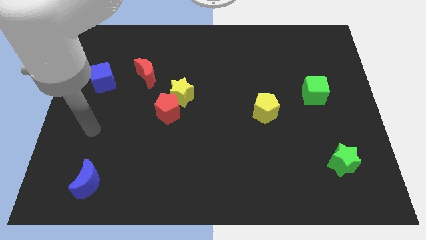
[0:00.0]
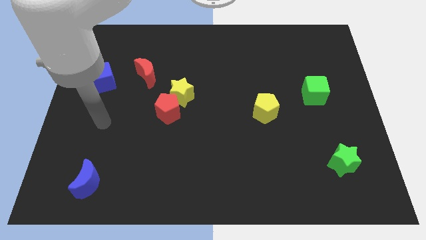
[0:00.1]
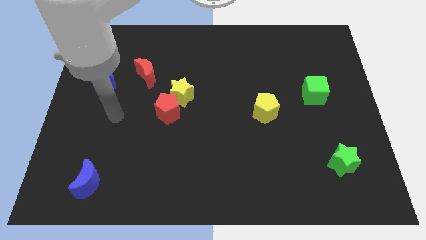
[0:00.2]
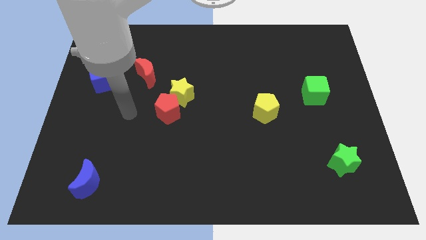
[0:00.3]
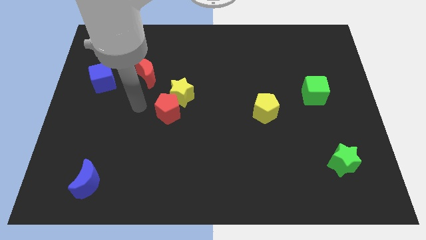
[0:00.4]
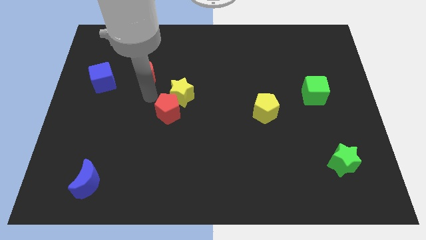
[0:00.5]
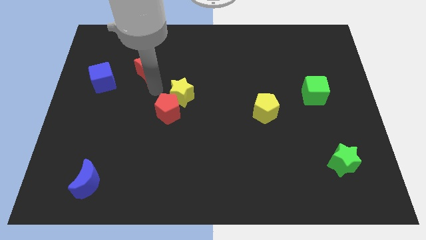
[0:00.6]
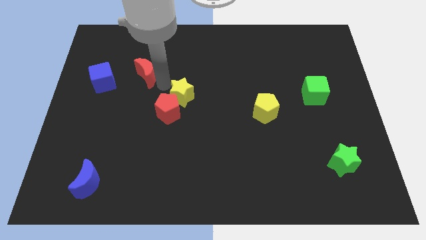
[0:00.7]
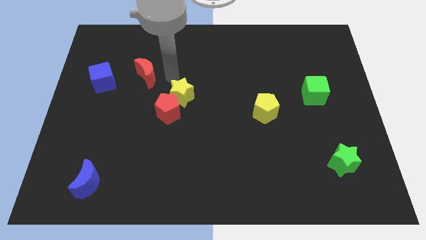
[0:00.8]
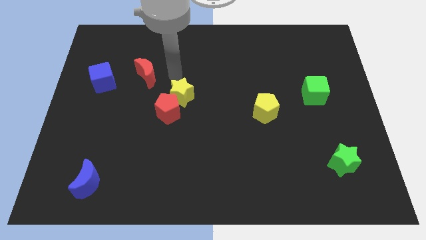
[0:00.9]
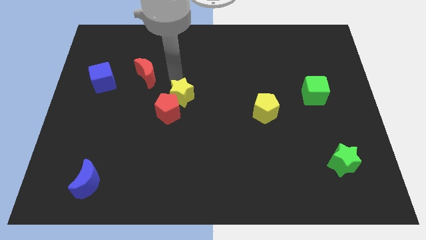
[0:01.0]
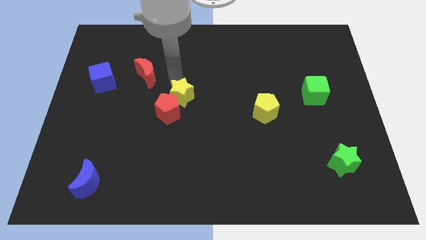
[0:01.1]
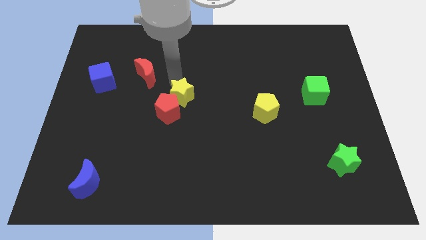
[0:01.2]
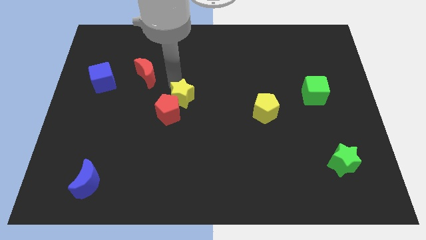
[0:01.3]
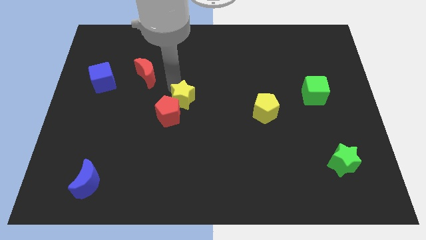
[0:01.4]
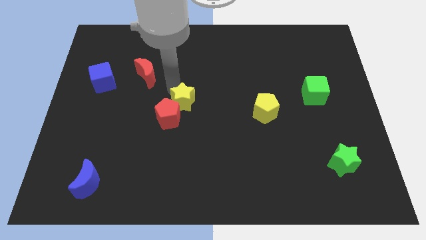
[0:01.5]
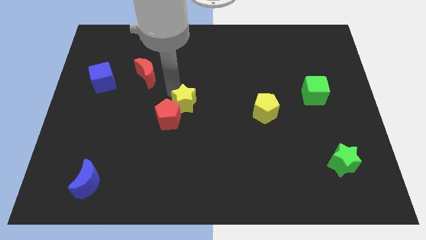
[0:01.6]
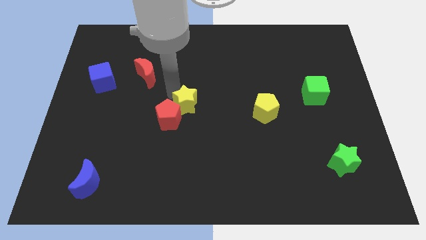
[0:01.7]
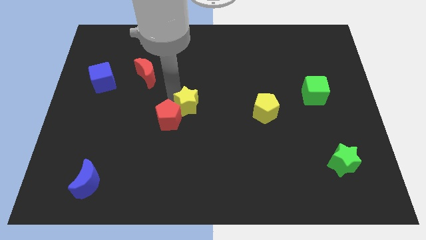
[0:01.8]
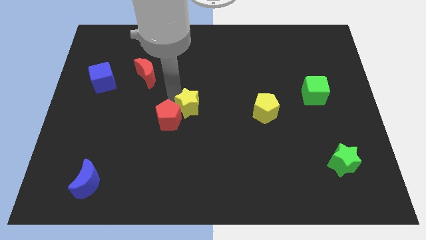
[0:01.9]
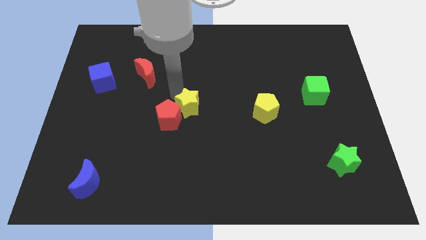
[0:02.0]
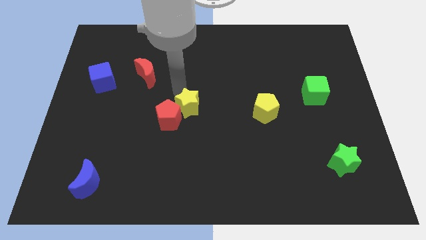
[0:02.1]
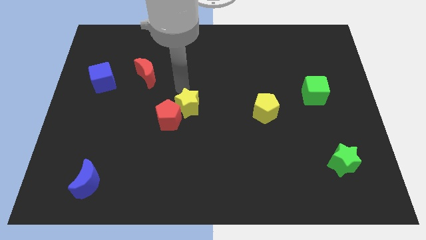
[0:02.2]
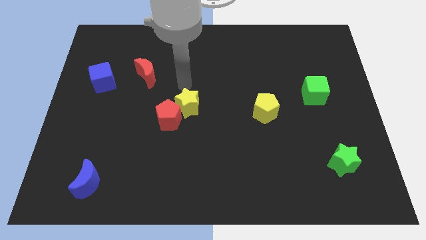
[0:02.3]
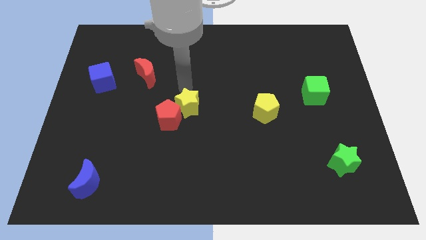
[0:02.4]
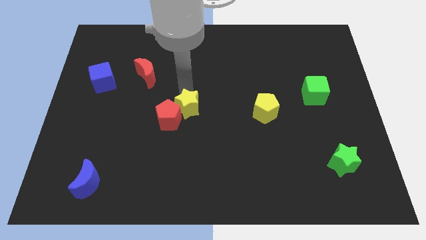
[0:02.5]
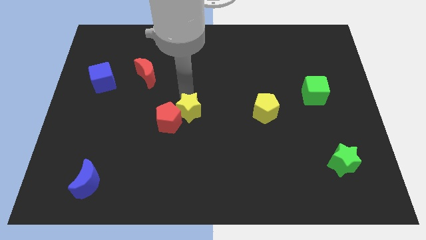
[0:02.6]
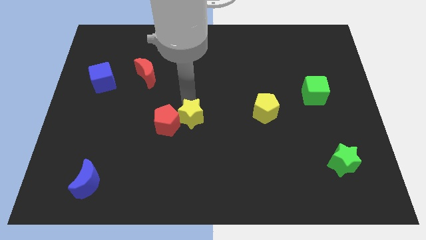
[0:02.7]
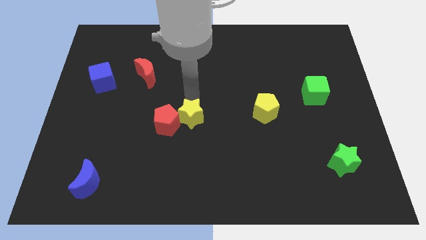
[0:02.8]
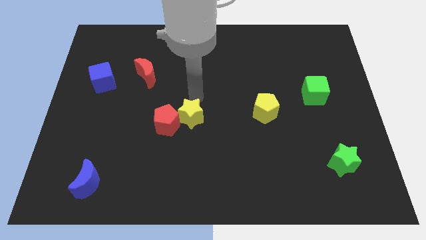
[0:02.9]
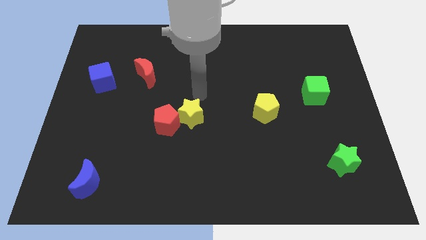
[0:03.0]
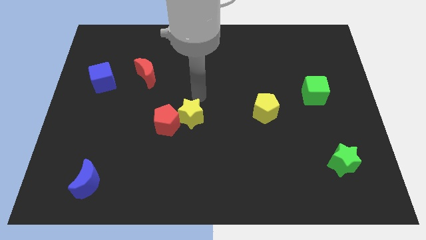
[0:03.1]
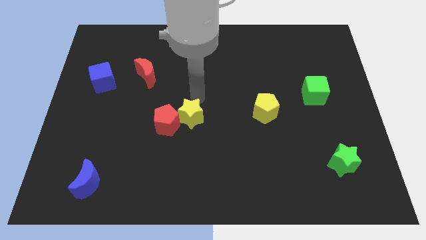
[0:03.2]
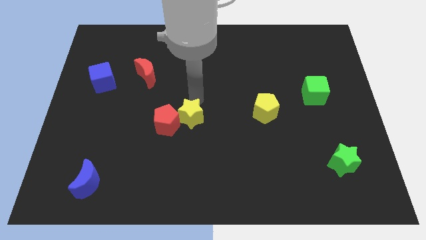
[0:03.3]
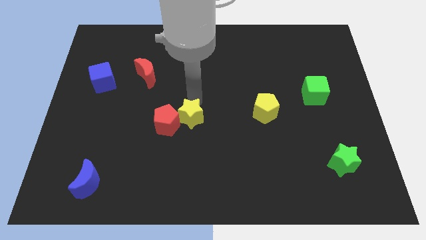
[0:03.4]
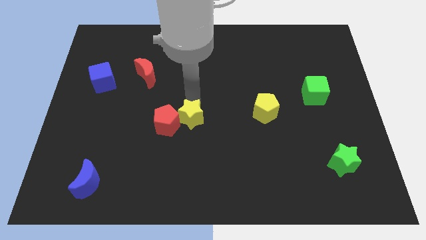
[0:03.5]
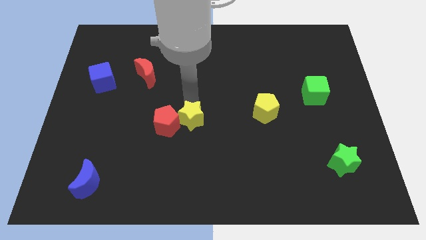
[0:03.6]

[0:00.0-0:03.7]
slightly move the yellow star down

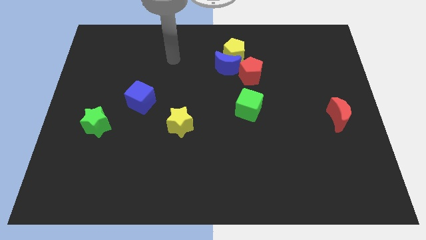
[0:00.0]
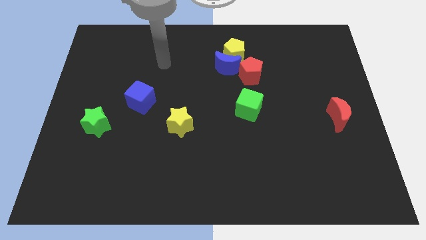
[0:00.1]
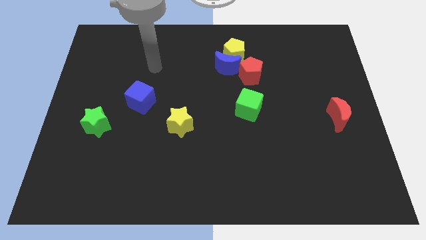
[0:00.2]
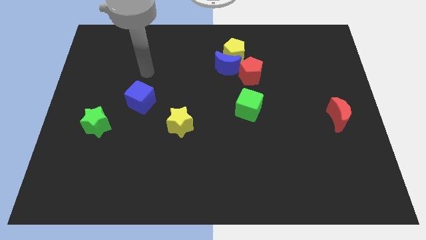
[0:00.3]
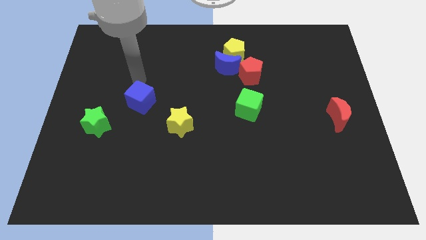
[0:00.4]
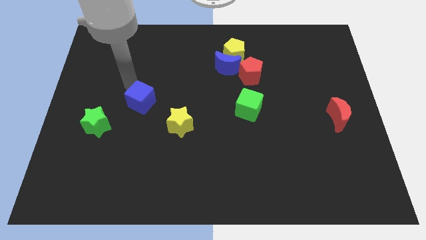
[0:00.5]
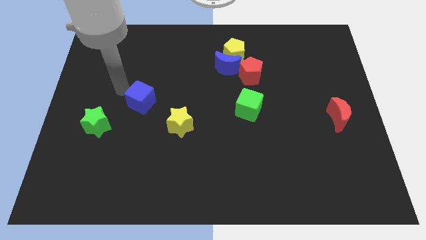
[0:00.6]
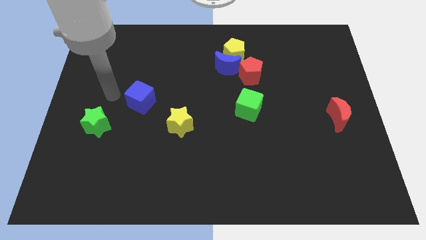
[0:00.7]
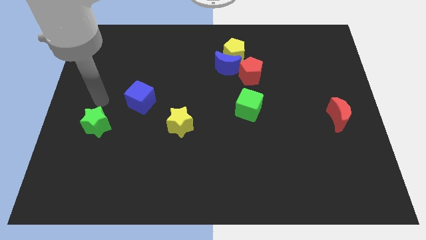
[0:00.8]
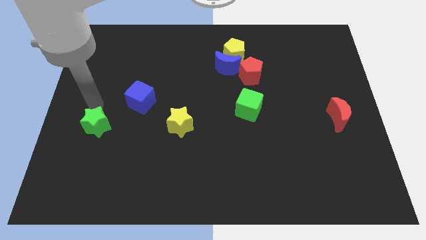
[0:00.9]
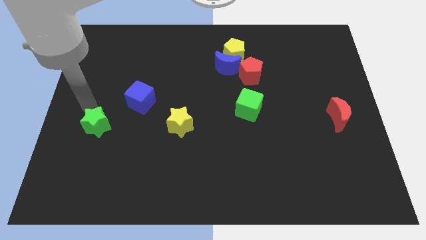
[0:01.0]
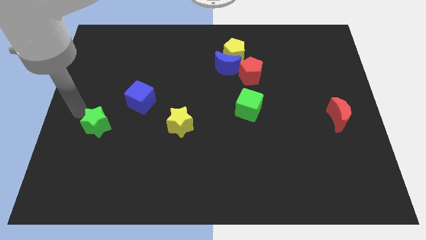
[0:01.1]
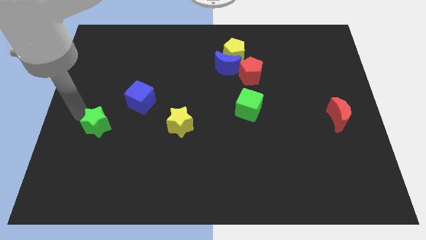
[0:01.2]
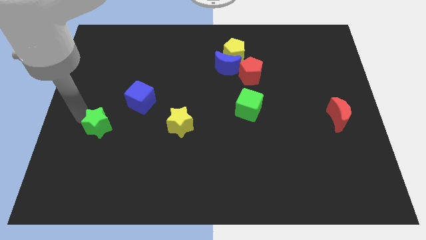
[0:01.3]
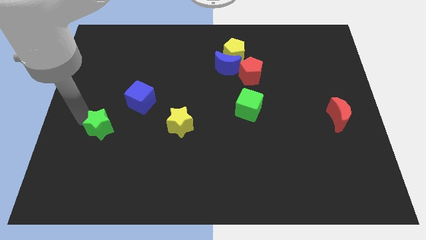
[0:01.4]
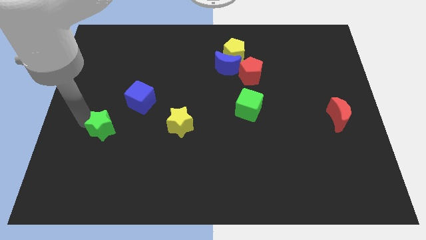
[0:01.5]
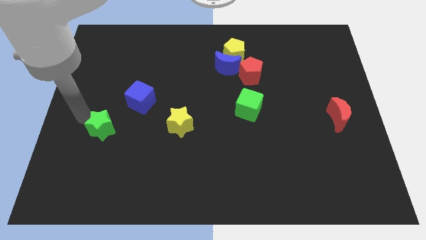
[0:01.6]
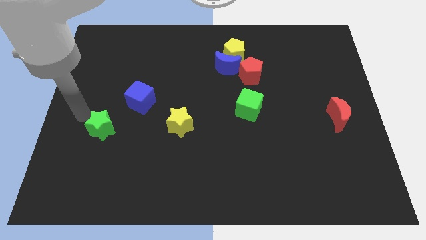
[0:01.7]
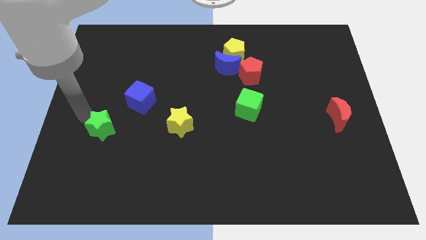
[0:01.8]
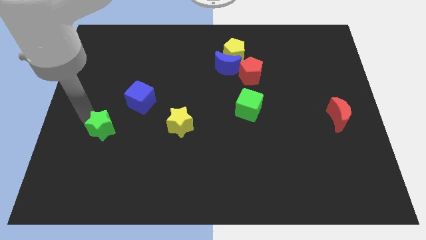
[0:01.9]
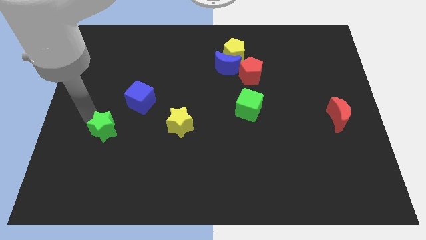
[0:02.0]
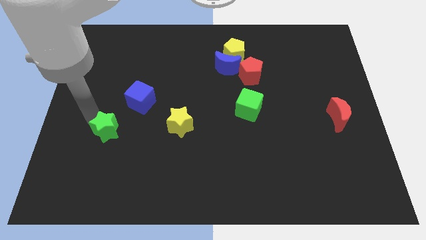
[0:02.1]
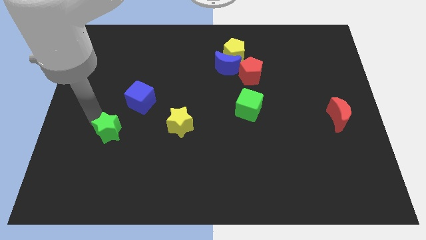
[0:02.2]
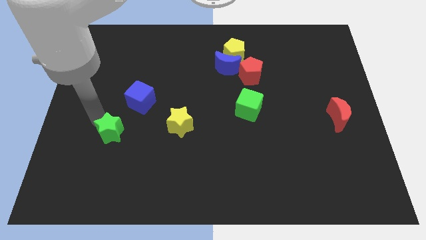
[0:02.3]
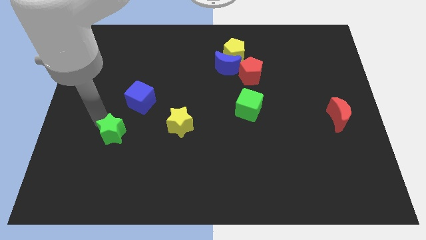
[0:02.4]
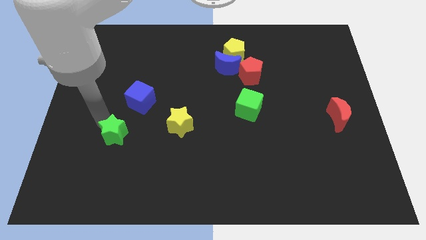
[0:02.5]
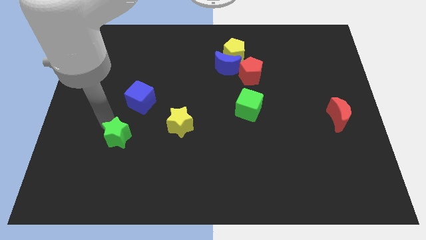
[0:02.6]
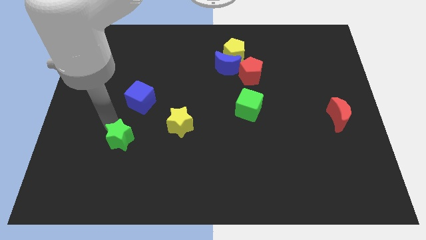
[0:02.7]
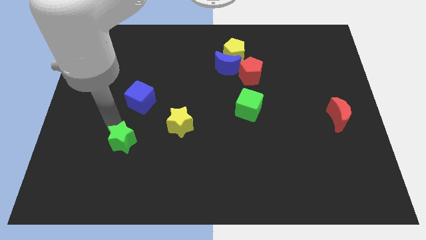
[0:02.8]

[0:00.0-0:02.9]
move the green star somewhat down and to the right diagonally

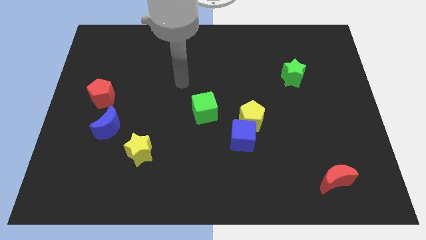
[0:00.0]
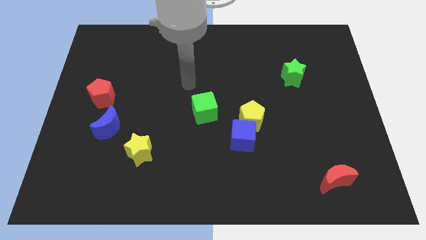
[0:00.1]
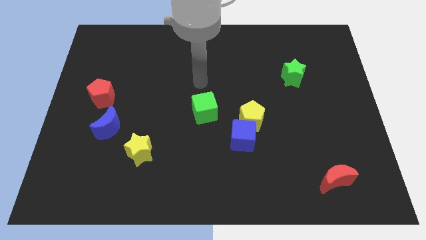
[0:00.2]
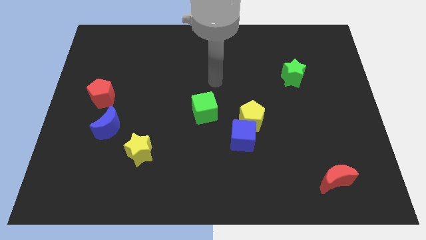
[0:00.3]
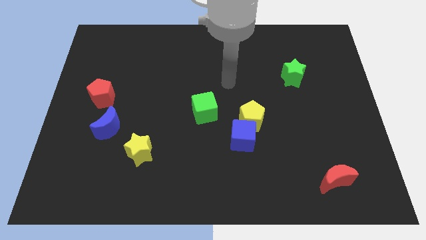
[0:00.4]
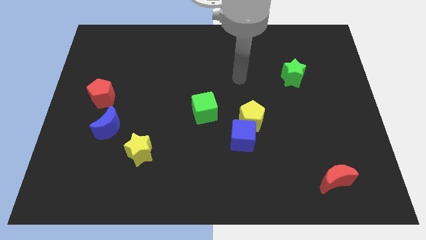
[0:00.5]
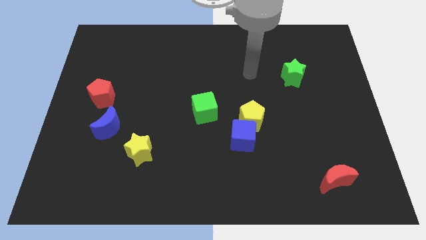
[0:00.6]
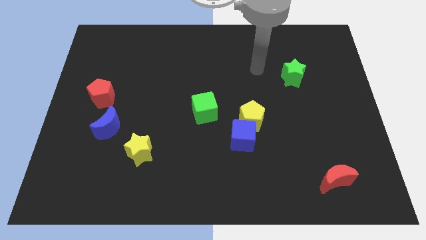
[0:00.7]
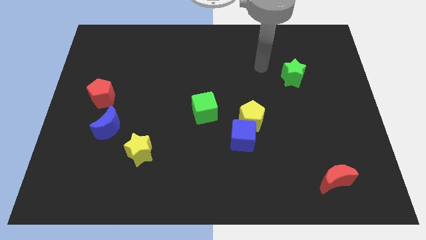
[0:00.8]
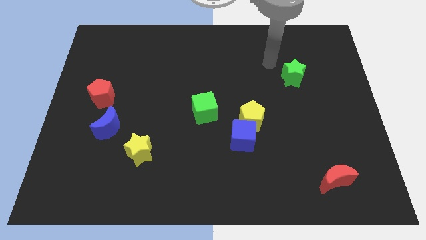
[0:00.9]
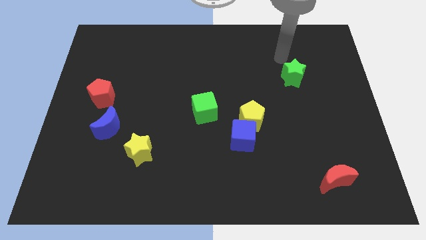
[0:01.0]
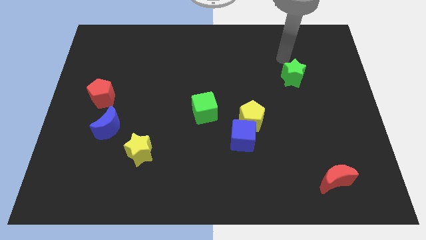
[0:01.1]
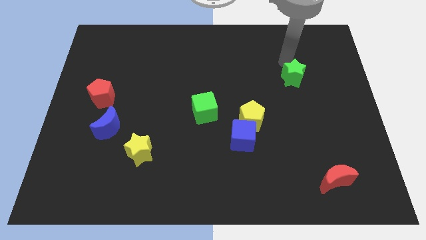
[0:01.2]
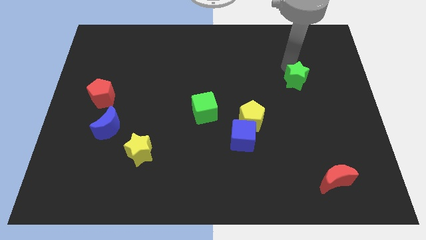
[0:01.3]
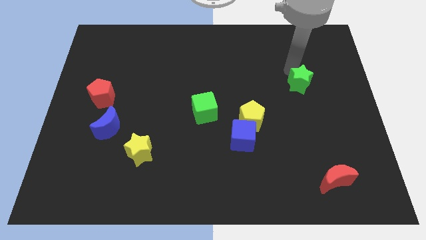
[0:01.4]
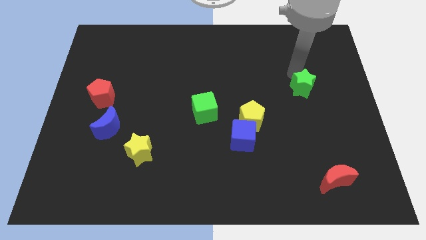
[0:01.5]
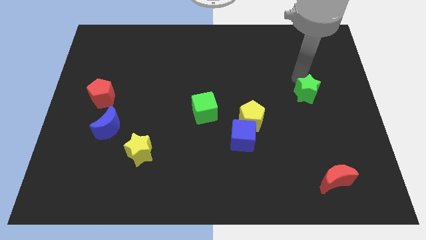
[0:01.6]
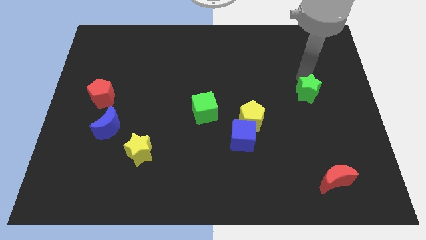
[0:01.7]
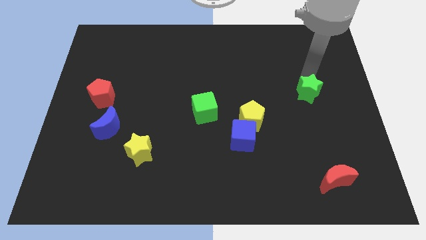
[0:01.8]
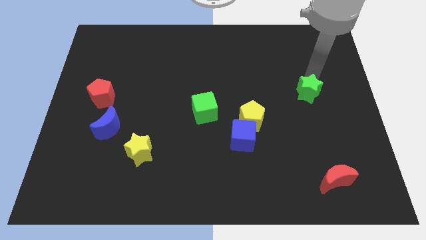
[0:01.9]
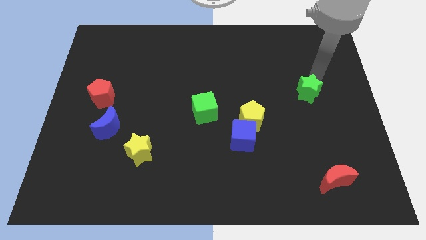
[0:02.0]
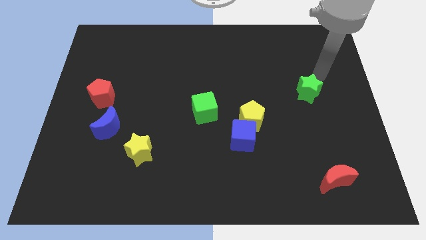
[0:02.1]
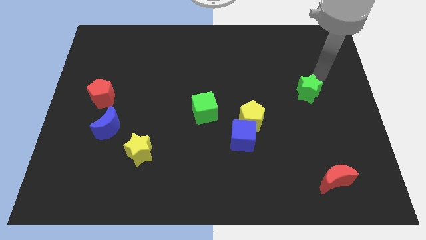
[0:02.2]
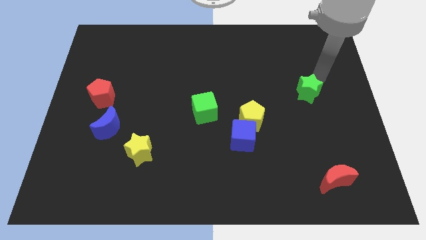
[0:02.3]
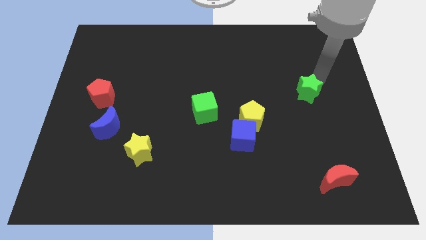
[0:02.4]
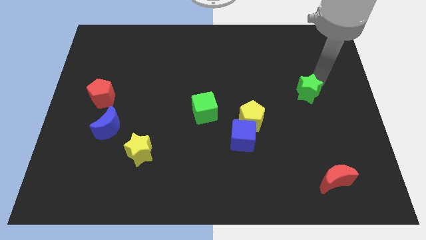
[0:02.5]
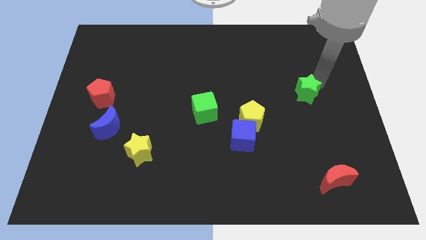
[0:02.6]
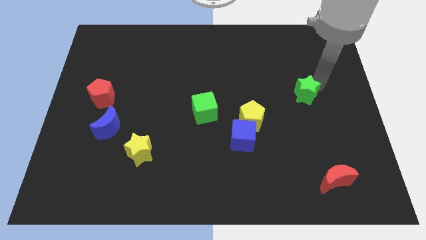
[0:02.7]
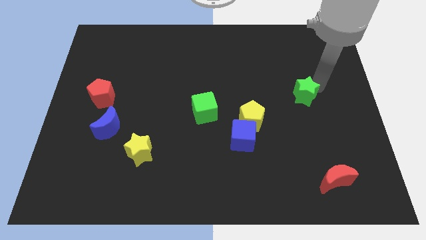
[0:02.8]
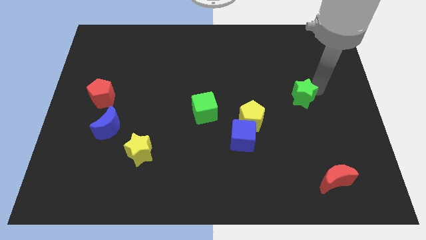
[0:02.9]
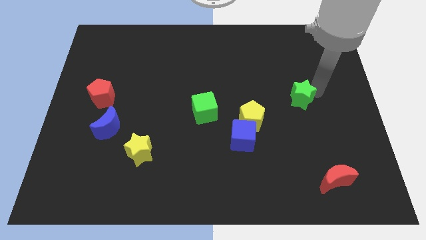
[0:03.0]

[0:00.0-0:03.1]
move the green star a bit downwards
